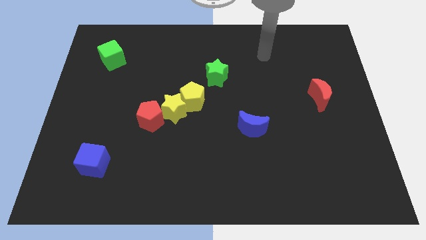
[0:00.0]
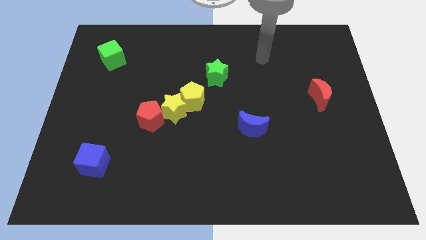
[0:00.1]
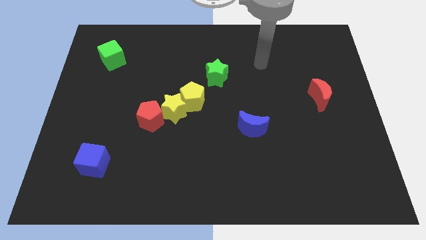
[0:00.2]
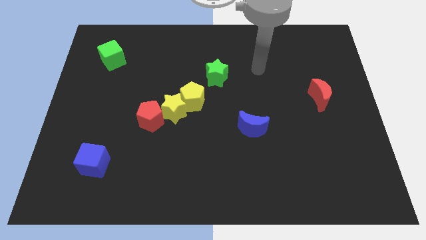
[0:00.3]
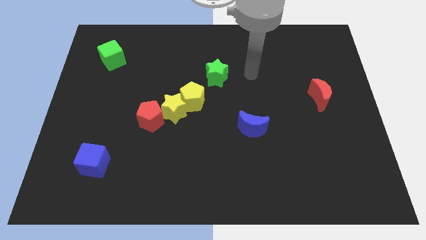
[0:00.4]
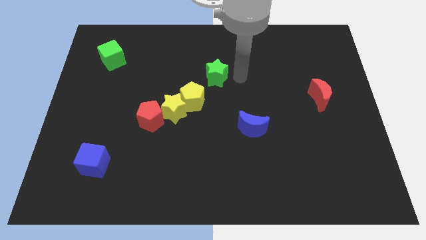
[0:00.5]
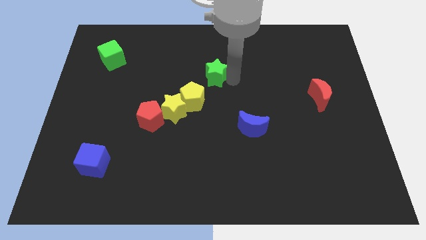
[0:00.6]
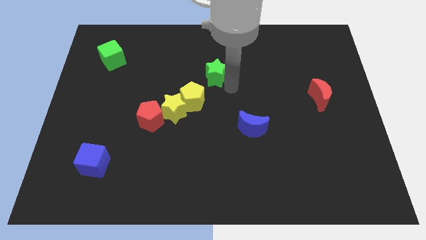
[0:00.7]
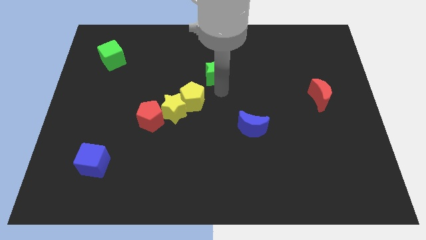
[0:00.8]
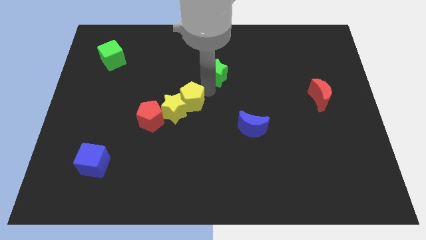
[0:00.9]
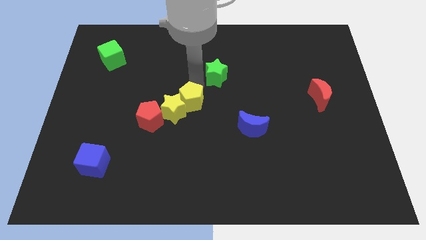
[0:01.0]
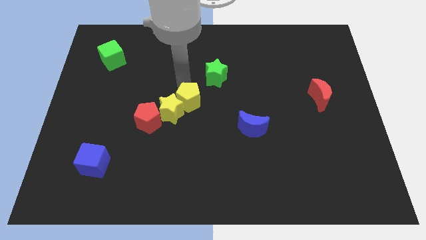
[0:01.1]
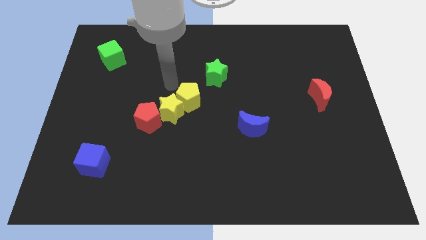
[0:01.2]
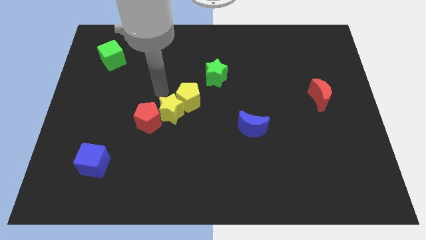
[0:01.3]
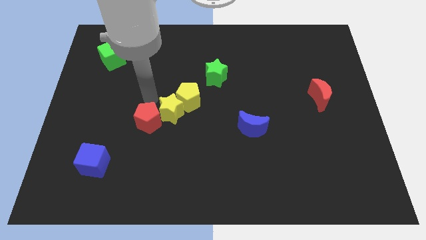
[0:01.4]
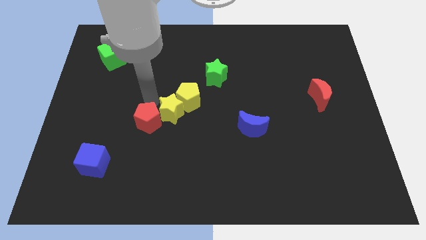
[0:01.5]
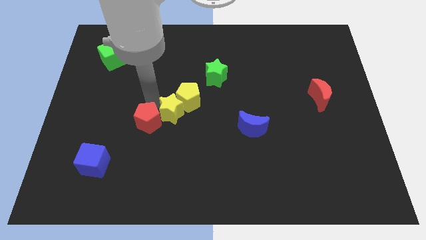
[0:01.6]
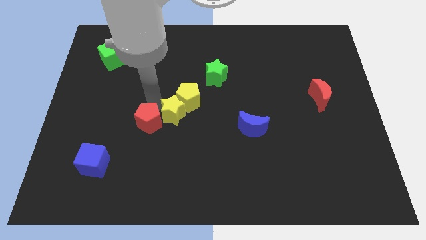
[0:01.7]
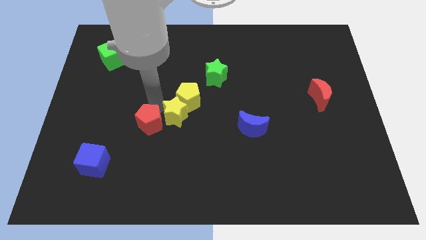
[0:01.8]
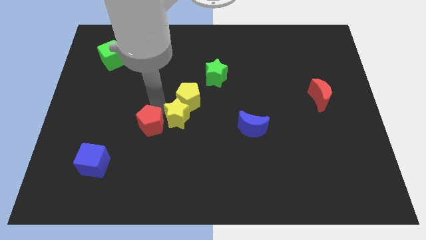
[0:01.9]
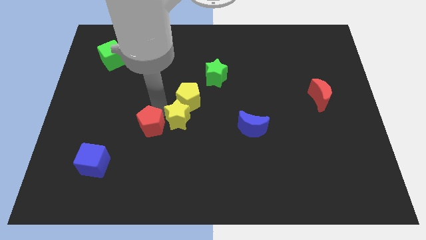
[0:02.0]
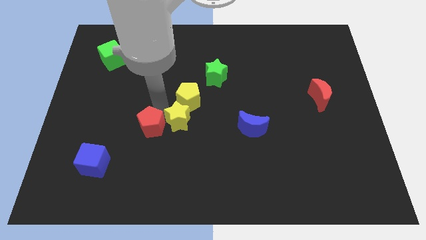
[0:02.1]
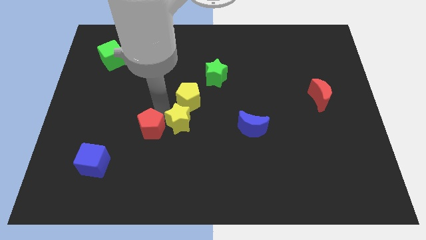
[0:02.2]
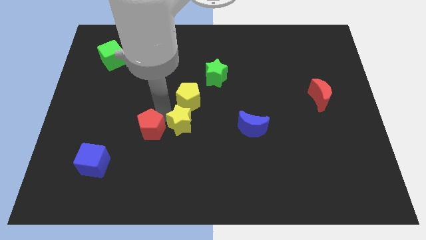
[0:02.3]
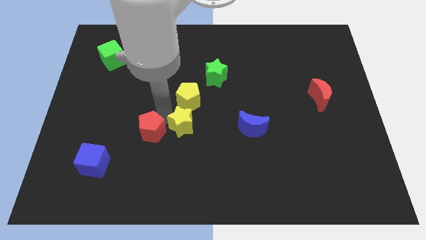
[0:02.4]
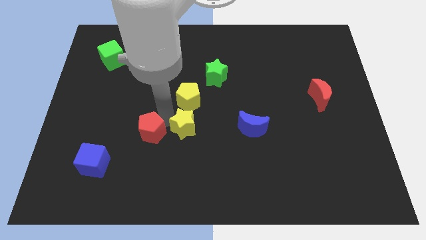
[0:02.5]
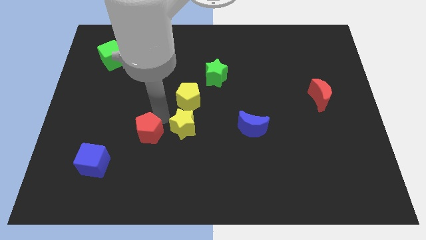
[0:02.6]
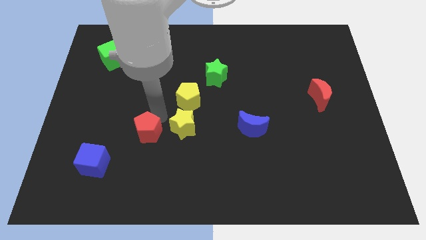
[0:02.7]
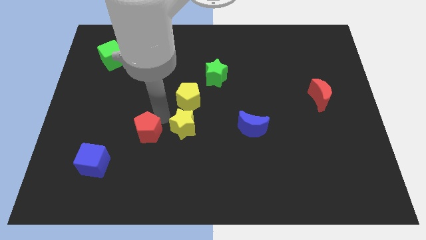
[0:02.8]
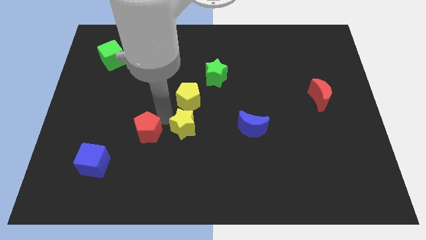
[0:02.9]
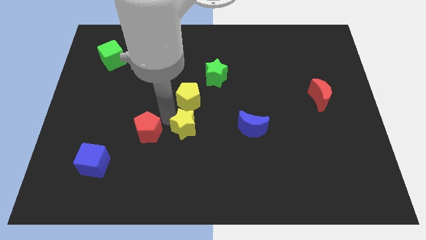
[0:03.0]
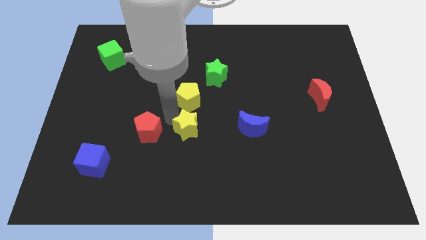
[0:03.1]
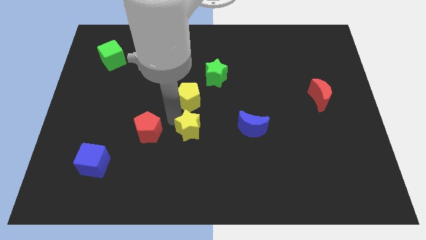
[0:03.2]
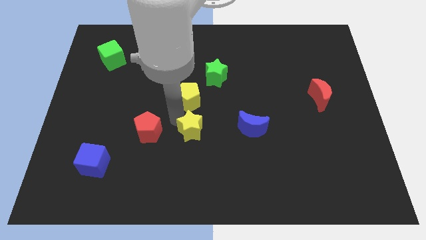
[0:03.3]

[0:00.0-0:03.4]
push the yellow star slightly diagonally down and right

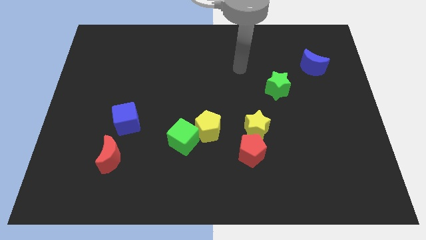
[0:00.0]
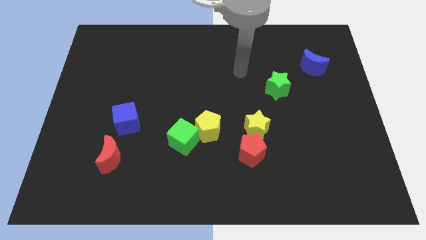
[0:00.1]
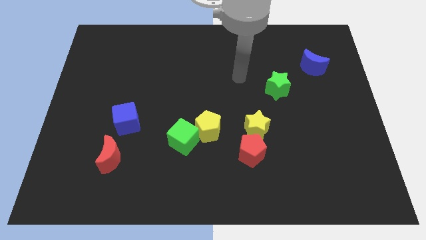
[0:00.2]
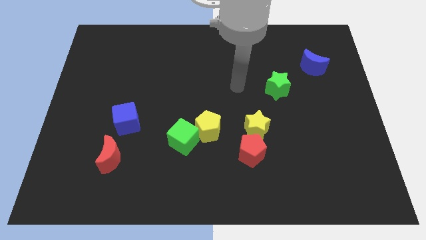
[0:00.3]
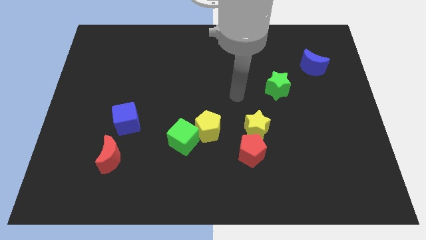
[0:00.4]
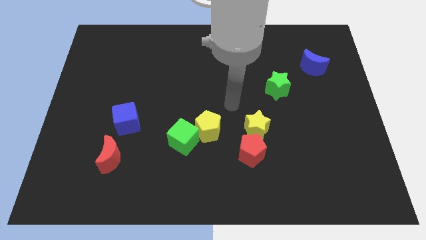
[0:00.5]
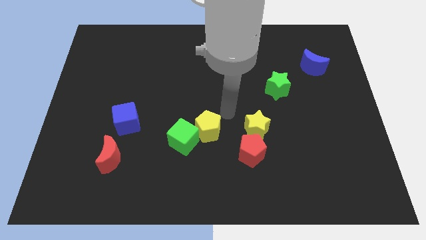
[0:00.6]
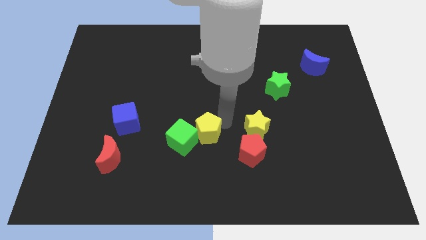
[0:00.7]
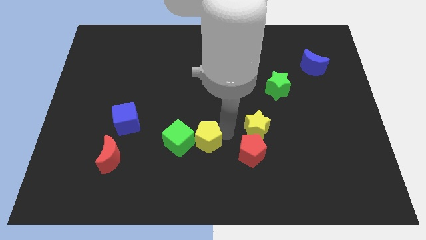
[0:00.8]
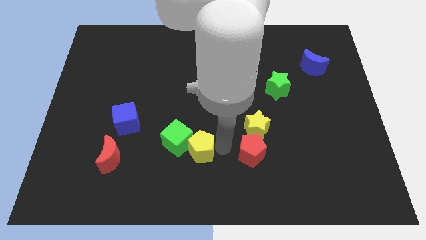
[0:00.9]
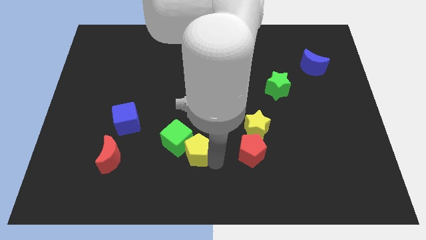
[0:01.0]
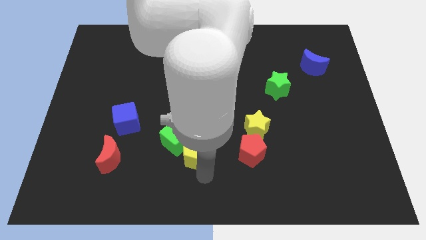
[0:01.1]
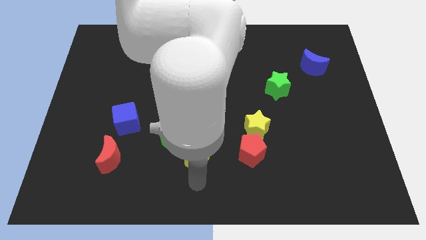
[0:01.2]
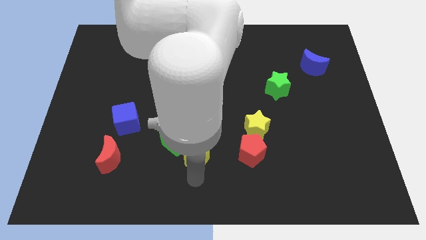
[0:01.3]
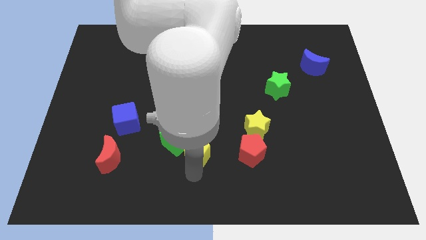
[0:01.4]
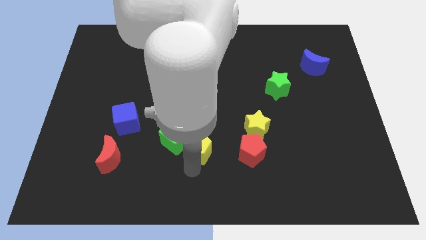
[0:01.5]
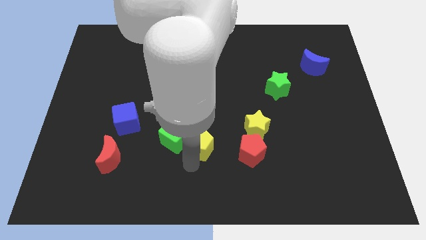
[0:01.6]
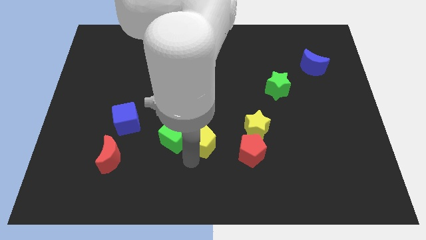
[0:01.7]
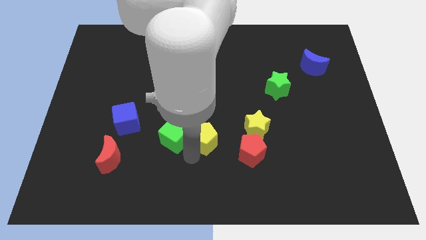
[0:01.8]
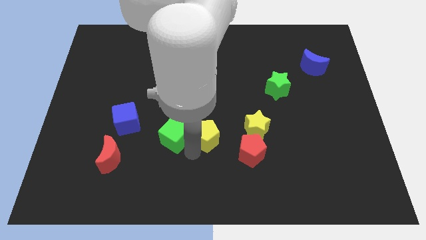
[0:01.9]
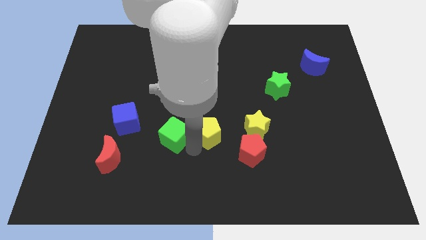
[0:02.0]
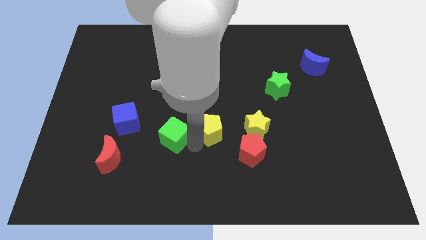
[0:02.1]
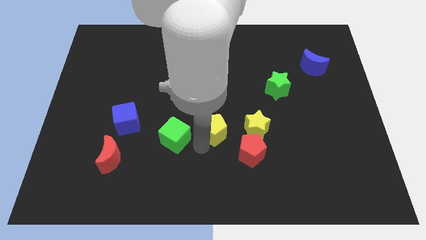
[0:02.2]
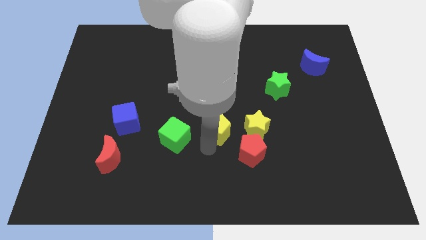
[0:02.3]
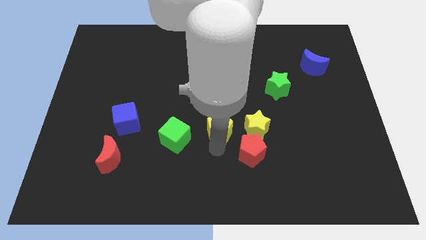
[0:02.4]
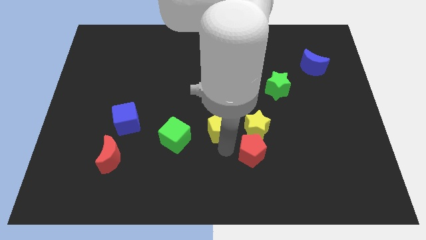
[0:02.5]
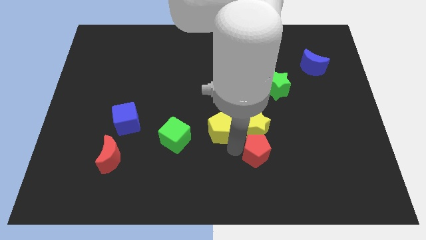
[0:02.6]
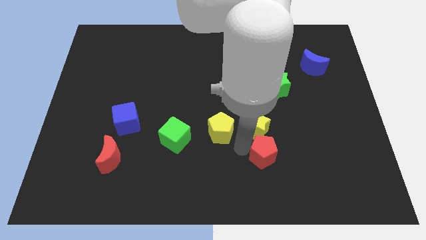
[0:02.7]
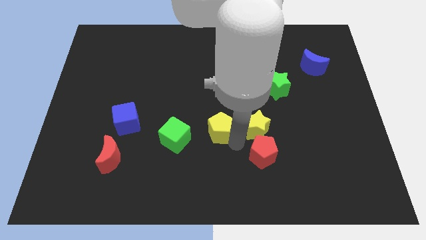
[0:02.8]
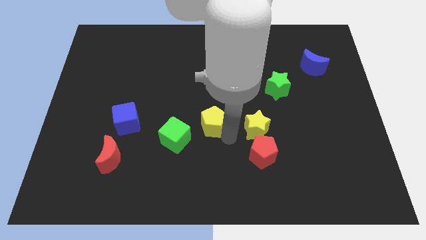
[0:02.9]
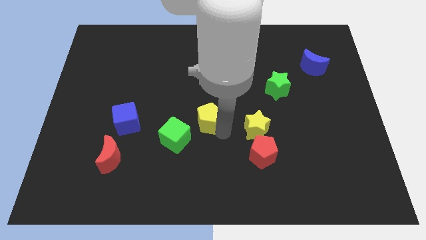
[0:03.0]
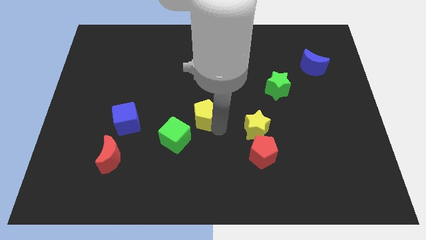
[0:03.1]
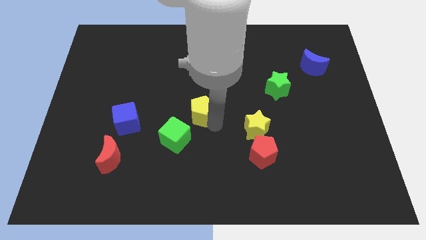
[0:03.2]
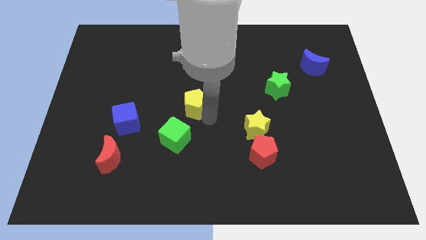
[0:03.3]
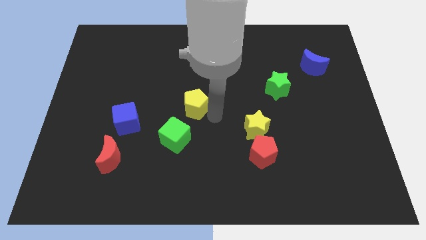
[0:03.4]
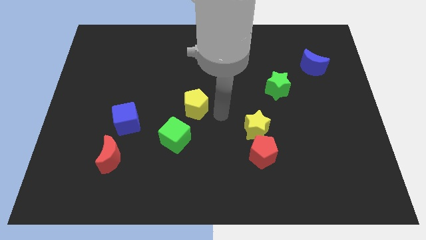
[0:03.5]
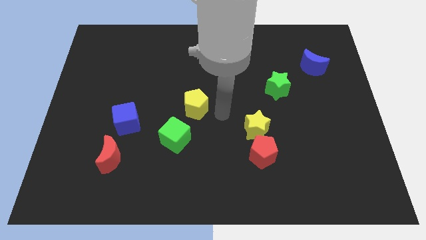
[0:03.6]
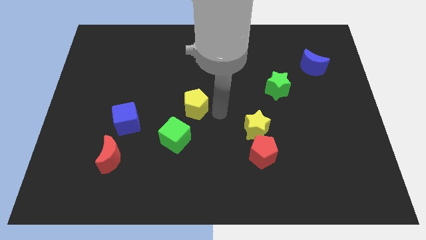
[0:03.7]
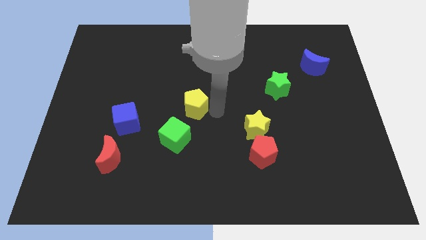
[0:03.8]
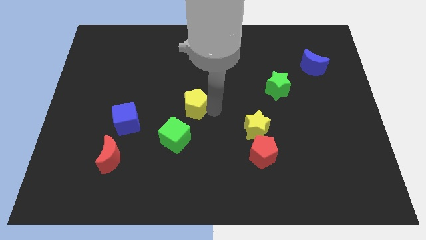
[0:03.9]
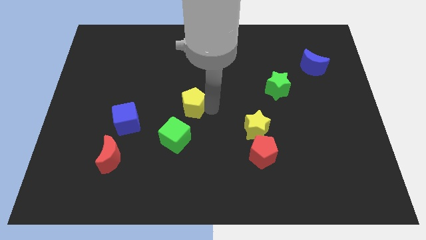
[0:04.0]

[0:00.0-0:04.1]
slightly push the yellow pentagon upwards and left diagonally

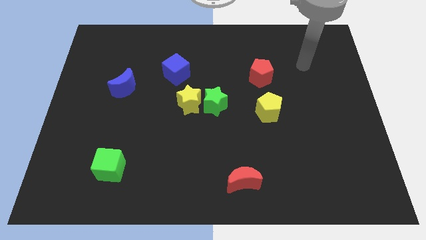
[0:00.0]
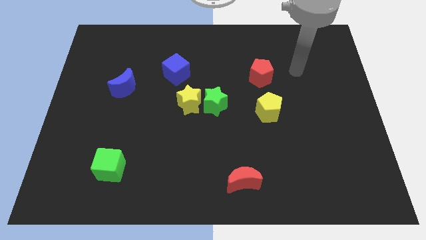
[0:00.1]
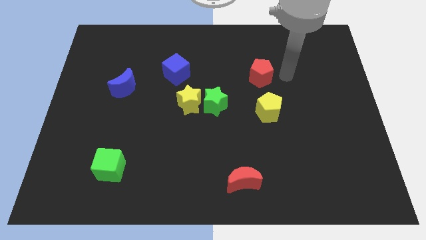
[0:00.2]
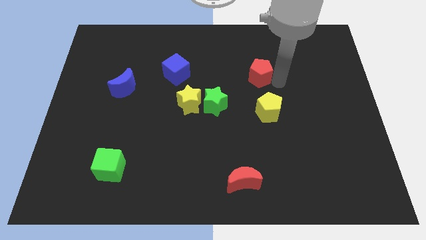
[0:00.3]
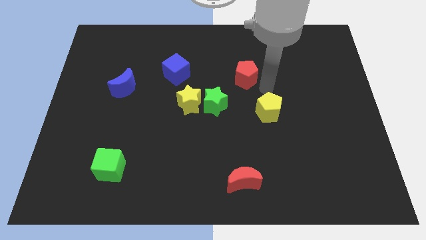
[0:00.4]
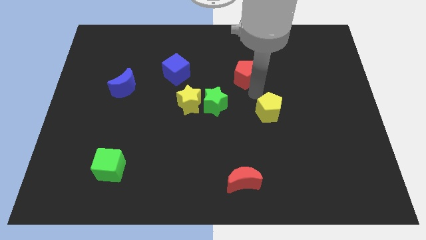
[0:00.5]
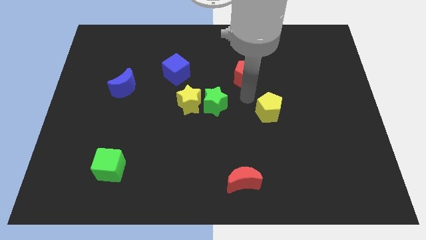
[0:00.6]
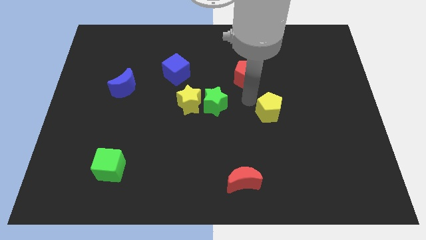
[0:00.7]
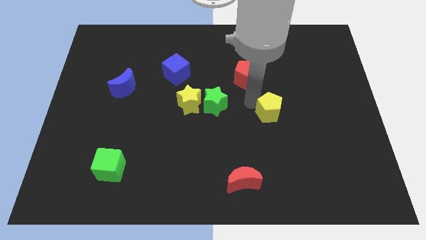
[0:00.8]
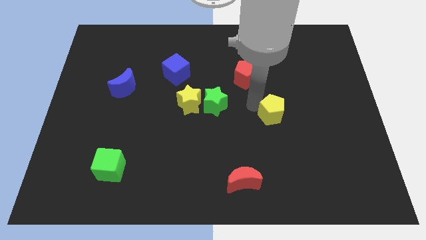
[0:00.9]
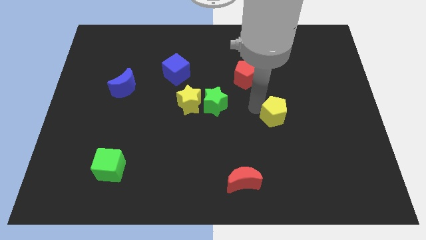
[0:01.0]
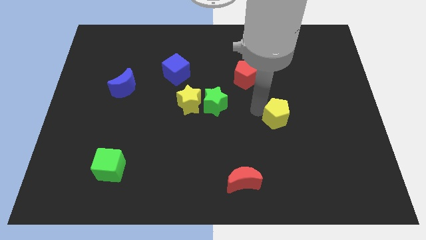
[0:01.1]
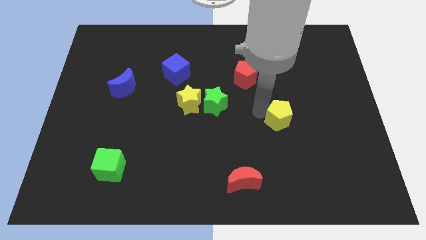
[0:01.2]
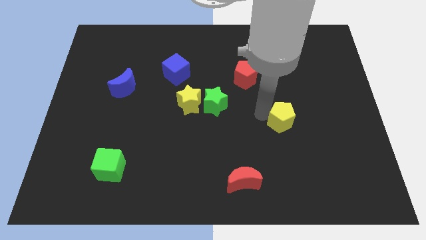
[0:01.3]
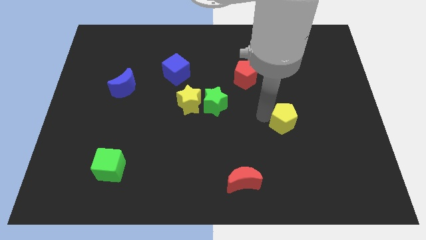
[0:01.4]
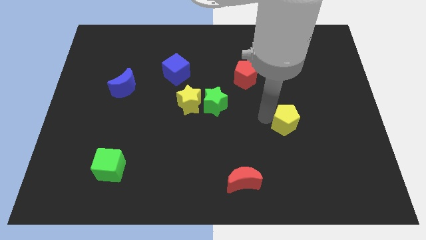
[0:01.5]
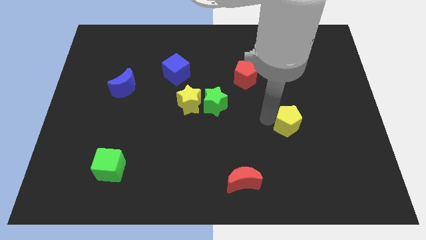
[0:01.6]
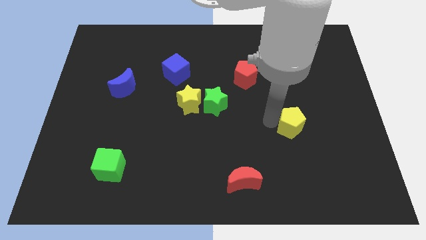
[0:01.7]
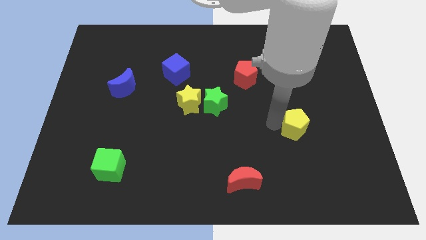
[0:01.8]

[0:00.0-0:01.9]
push the yellow pentagon diagonally down and right a little bit
